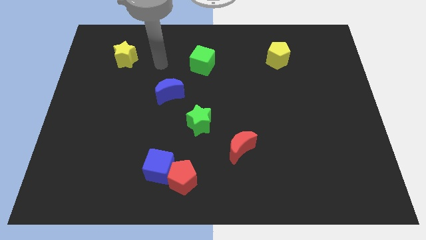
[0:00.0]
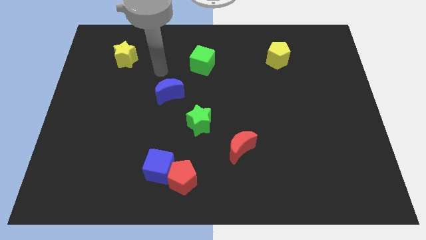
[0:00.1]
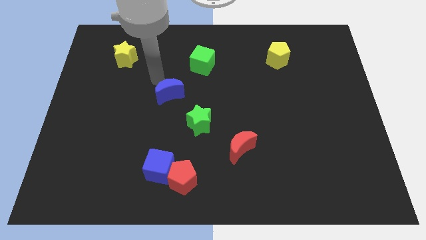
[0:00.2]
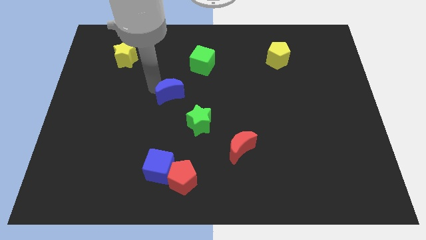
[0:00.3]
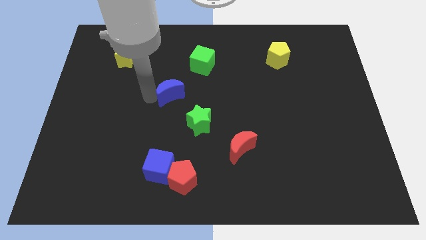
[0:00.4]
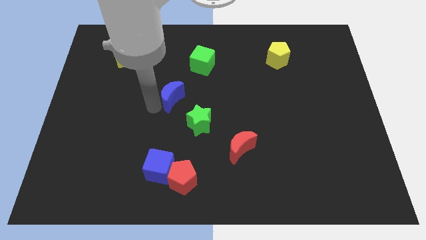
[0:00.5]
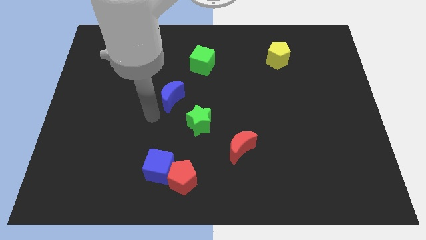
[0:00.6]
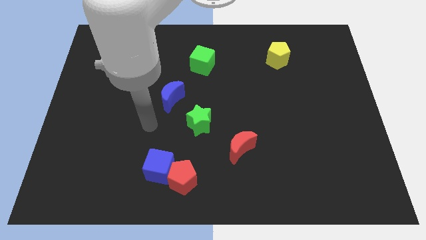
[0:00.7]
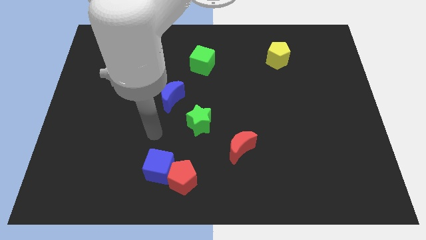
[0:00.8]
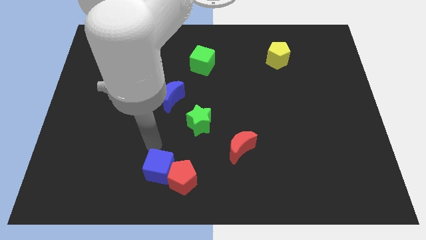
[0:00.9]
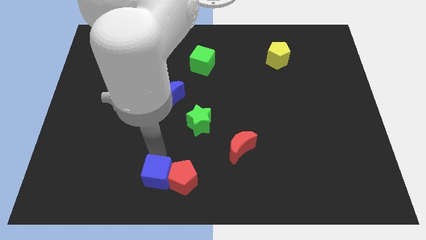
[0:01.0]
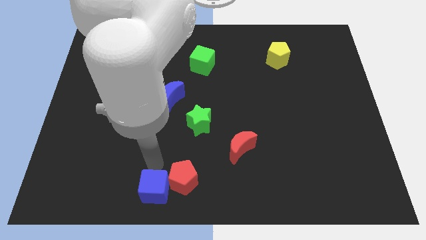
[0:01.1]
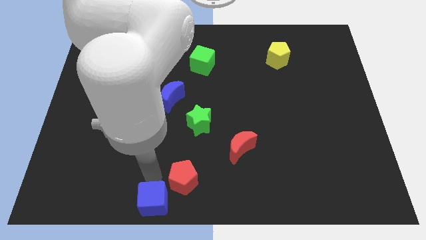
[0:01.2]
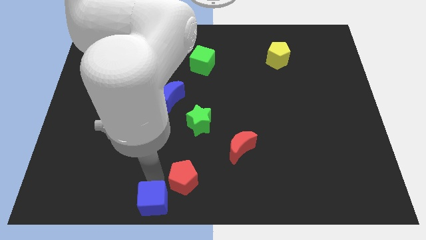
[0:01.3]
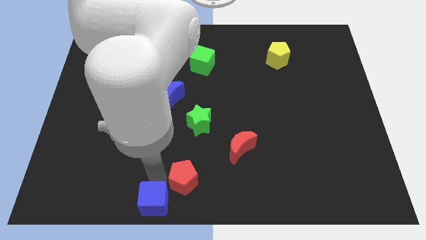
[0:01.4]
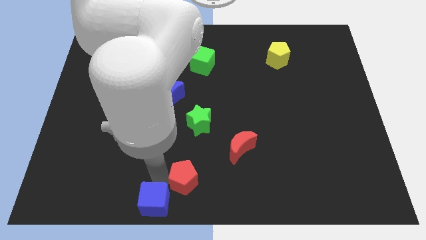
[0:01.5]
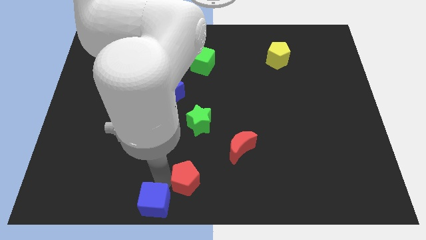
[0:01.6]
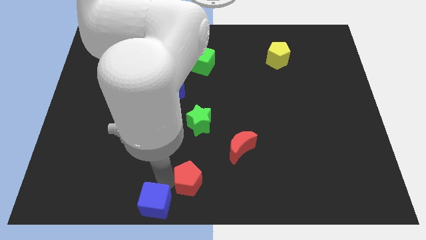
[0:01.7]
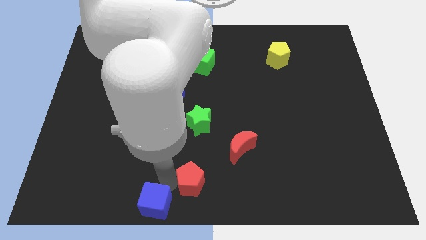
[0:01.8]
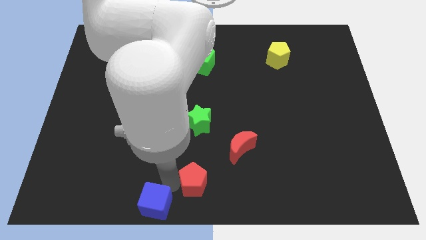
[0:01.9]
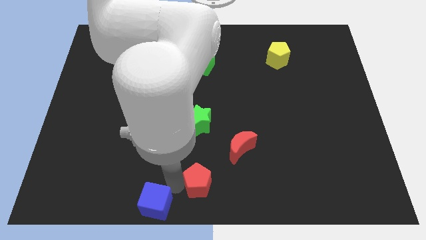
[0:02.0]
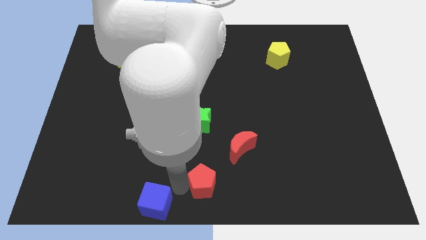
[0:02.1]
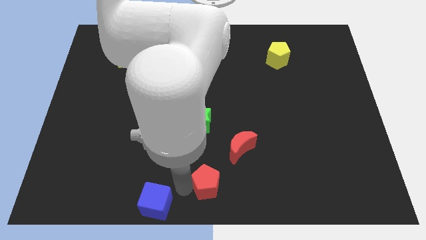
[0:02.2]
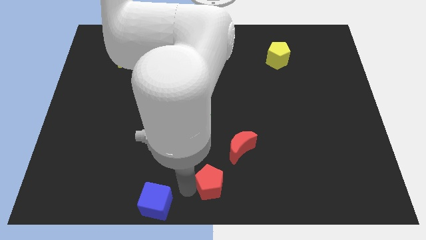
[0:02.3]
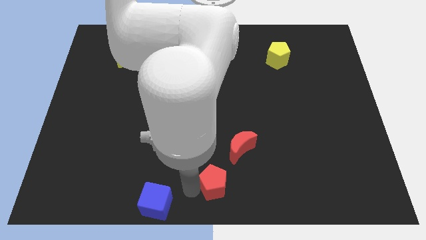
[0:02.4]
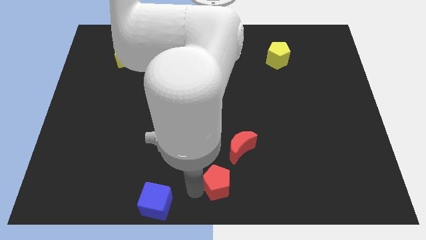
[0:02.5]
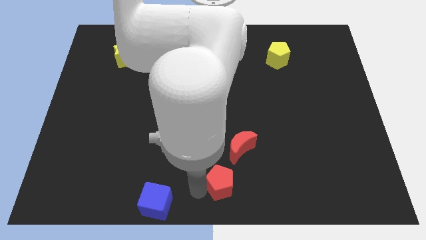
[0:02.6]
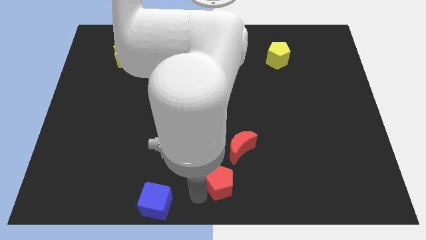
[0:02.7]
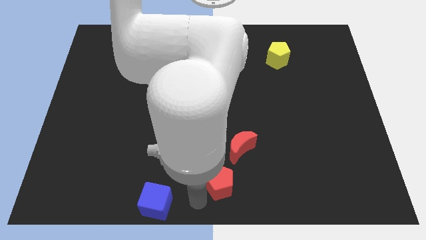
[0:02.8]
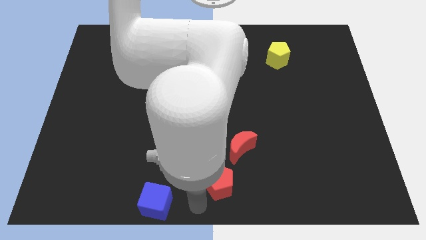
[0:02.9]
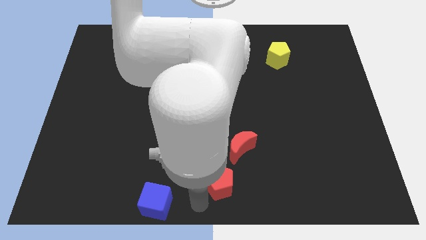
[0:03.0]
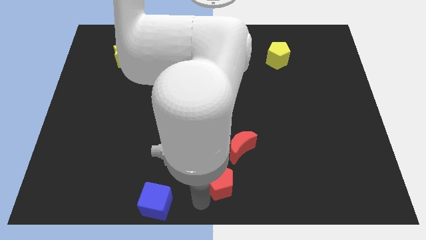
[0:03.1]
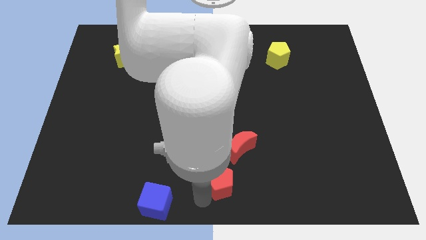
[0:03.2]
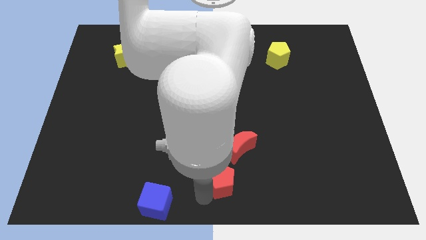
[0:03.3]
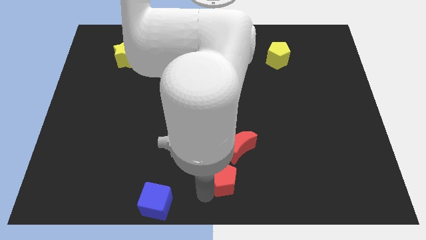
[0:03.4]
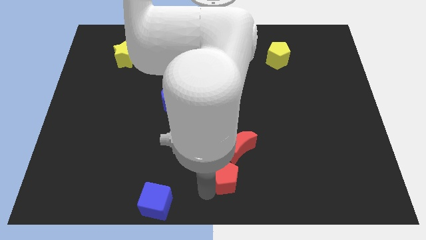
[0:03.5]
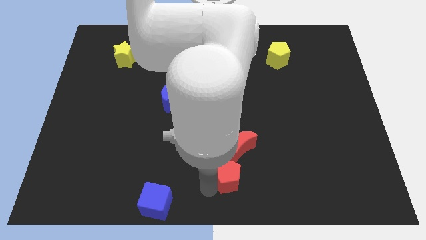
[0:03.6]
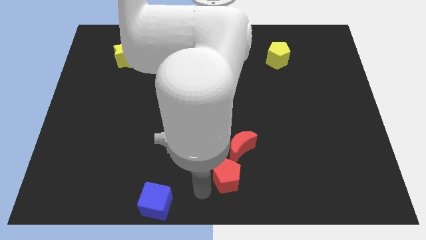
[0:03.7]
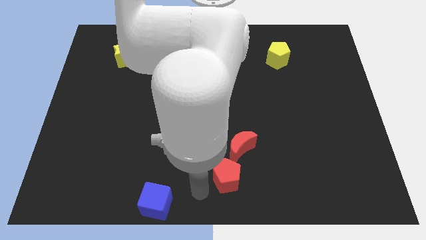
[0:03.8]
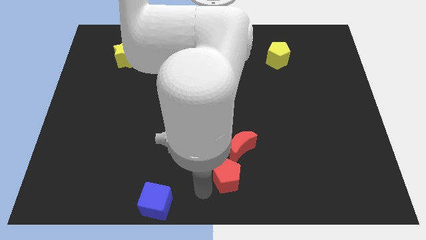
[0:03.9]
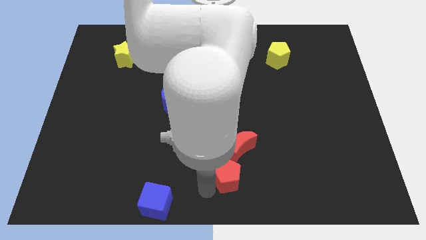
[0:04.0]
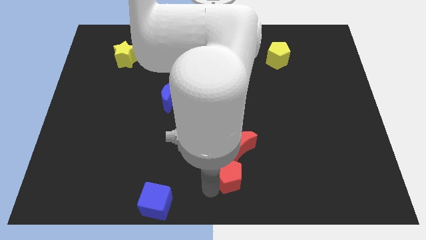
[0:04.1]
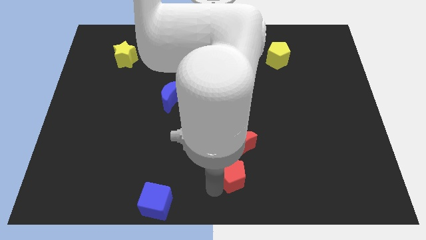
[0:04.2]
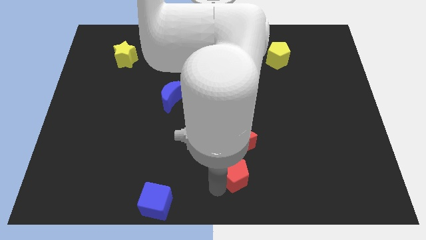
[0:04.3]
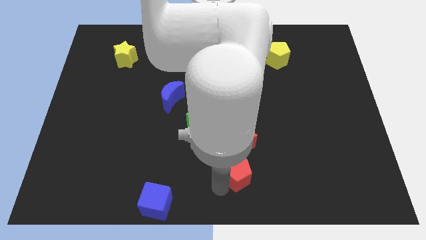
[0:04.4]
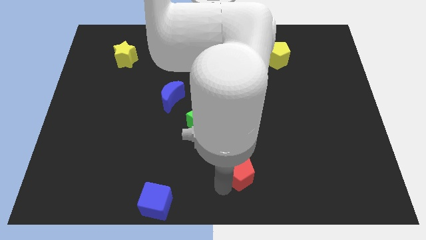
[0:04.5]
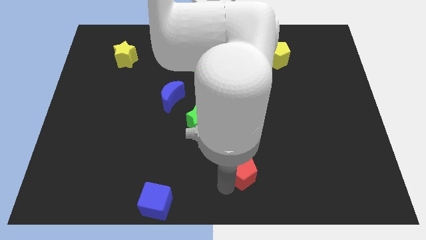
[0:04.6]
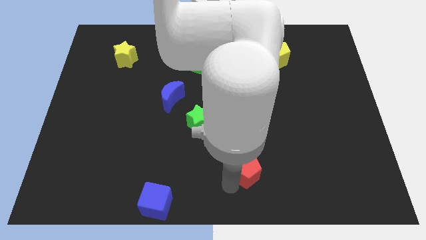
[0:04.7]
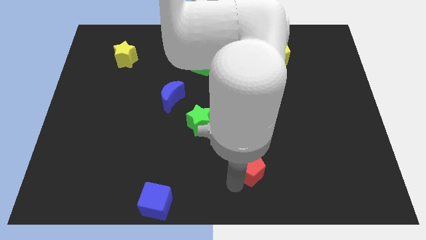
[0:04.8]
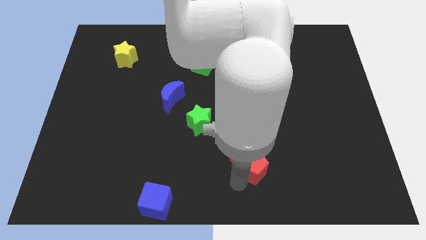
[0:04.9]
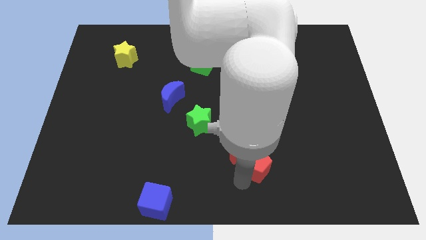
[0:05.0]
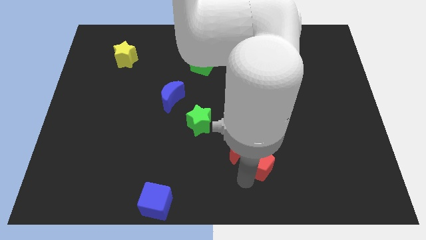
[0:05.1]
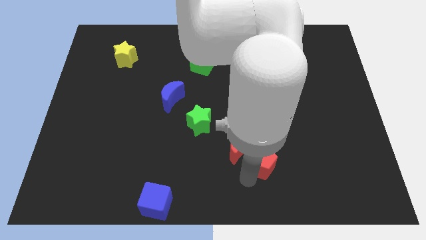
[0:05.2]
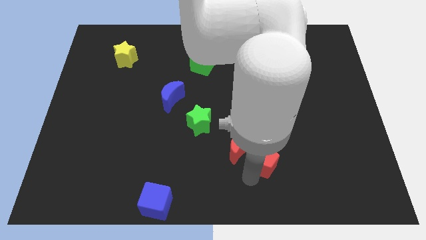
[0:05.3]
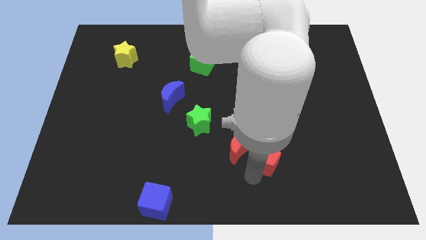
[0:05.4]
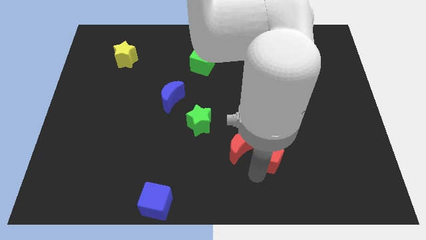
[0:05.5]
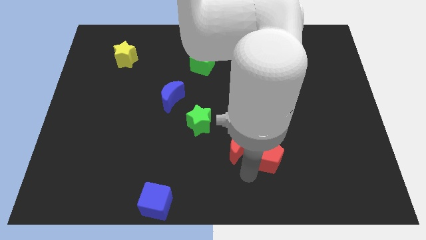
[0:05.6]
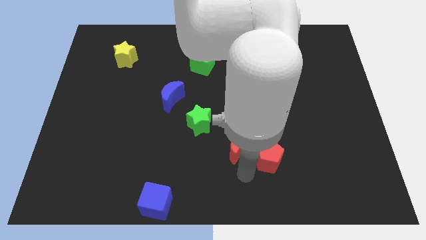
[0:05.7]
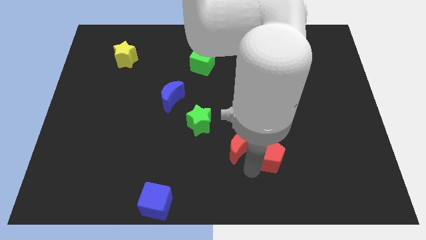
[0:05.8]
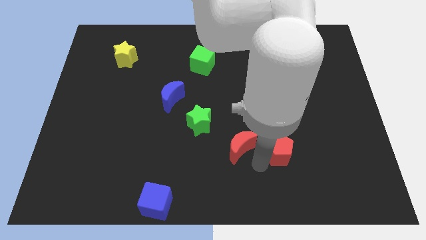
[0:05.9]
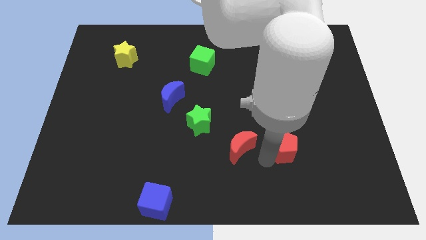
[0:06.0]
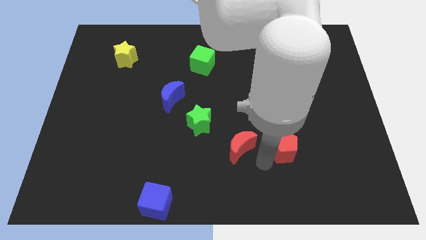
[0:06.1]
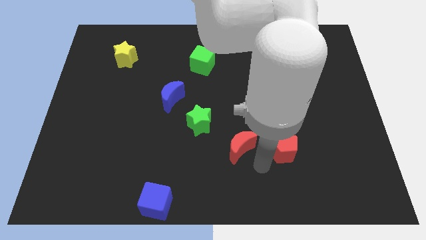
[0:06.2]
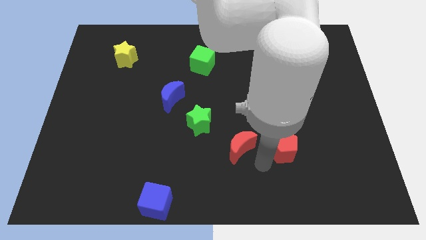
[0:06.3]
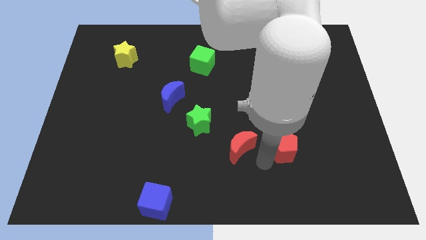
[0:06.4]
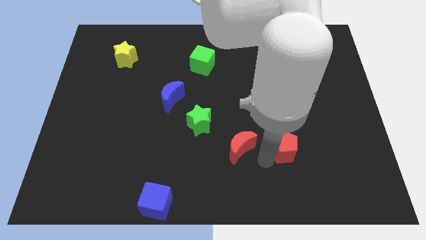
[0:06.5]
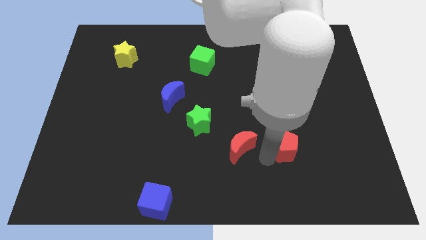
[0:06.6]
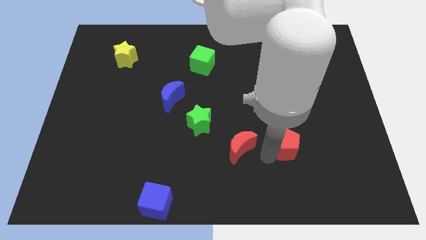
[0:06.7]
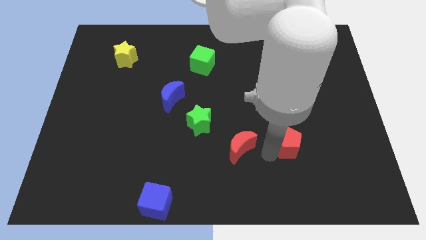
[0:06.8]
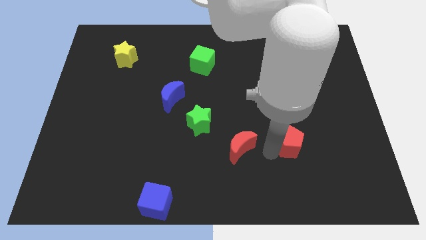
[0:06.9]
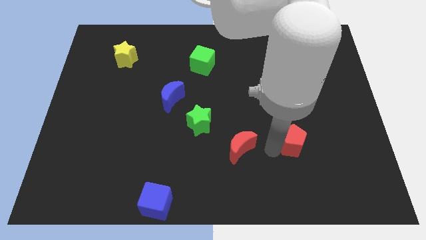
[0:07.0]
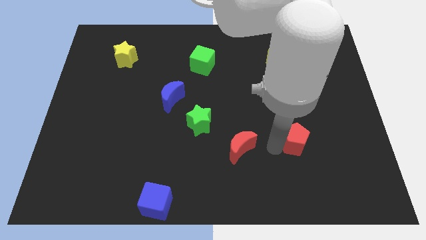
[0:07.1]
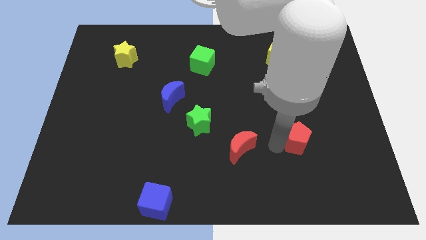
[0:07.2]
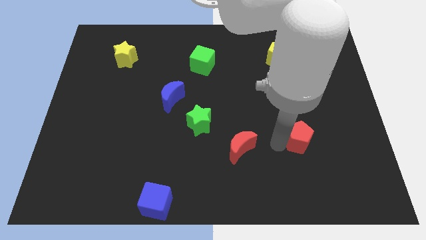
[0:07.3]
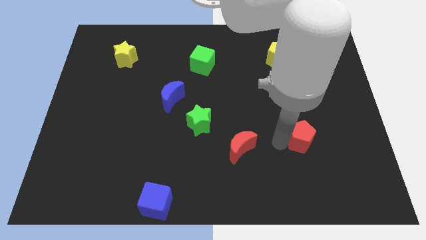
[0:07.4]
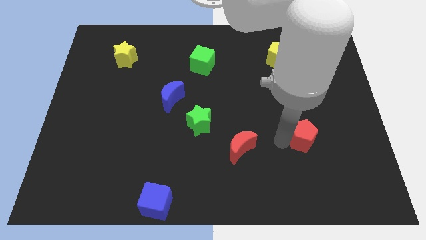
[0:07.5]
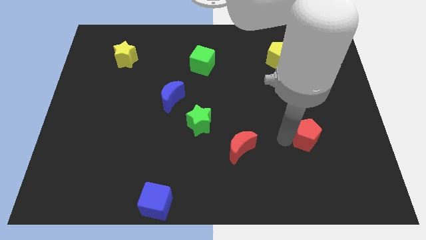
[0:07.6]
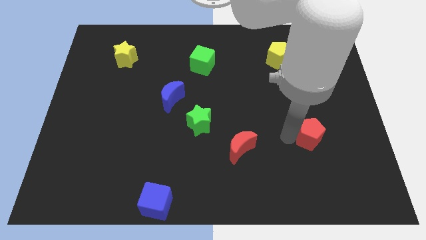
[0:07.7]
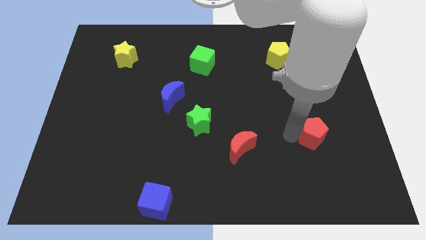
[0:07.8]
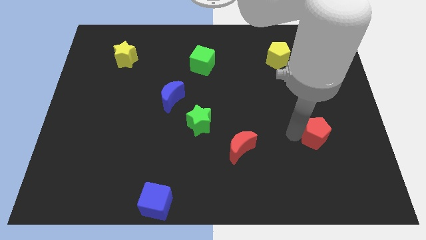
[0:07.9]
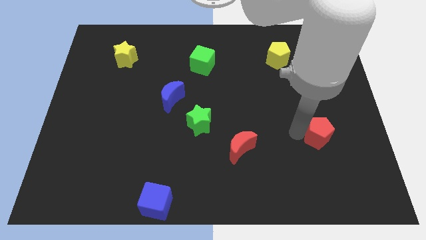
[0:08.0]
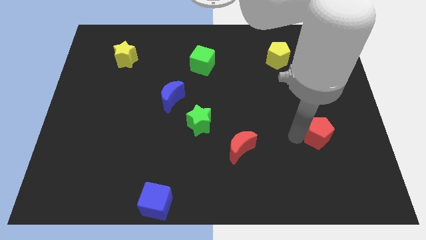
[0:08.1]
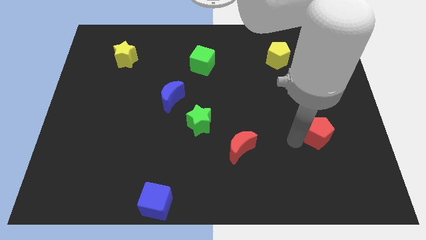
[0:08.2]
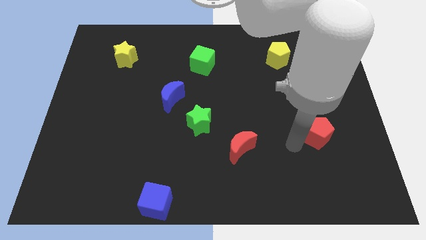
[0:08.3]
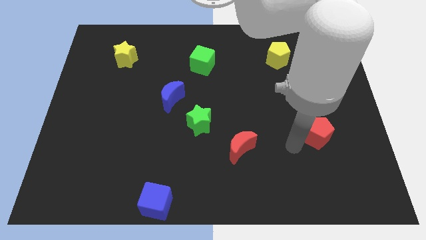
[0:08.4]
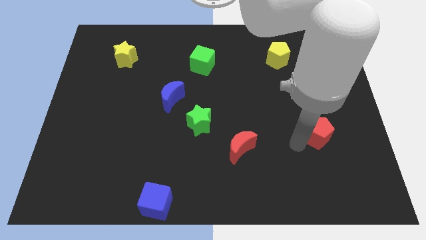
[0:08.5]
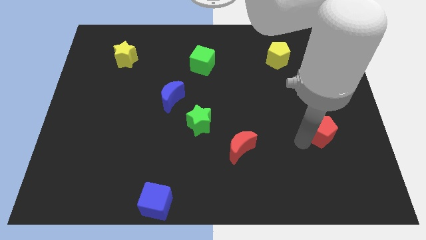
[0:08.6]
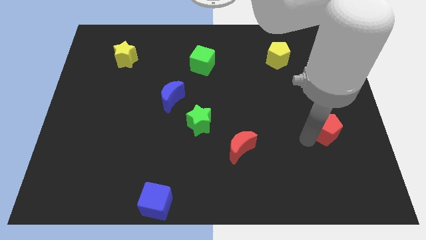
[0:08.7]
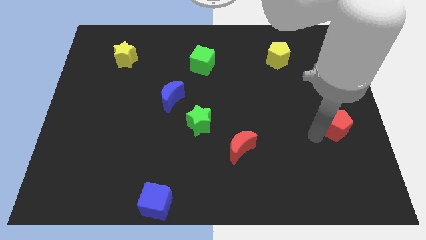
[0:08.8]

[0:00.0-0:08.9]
push the red pentagon to the right side of the board
